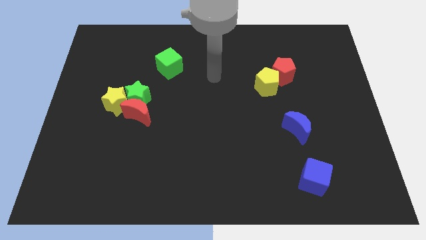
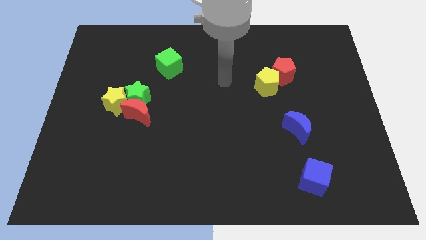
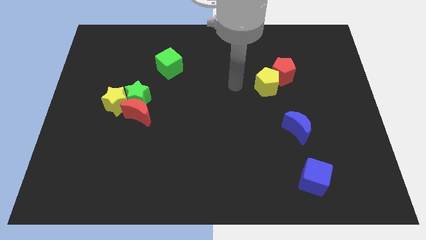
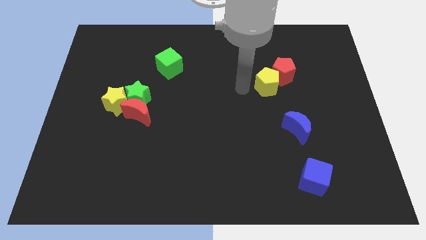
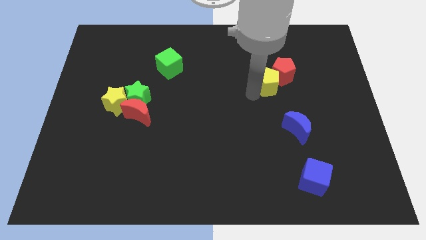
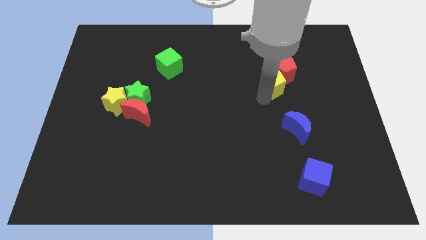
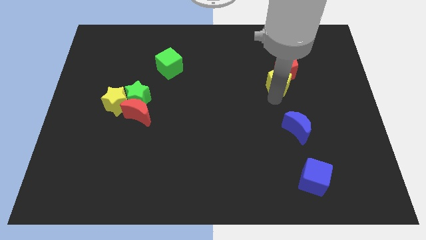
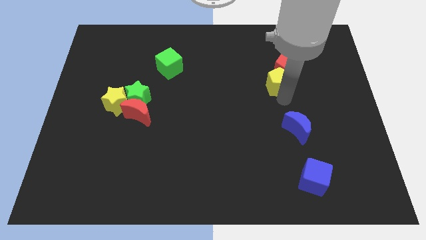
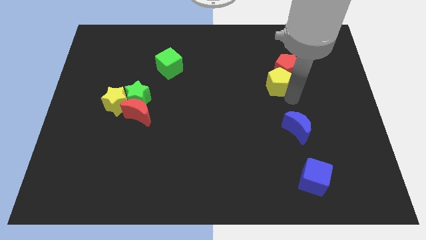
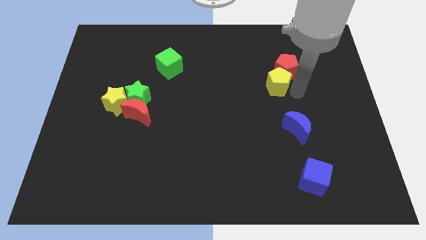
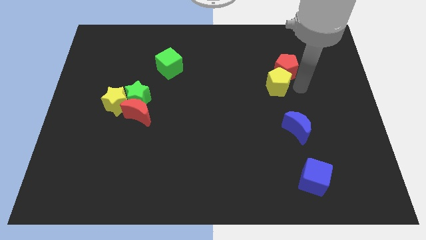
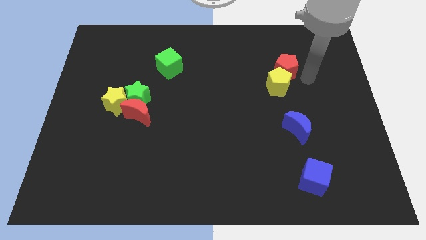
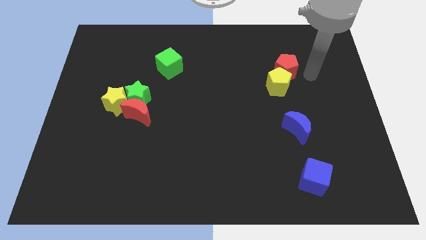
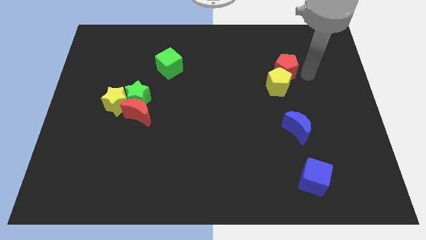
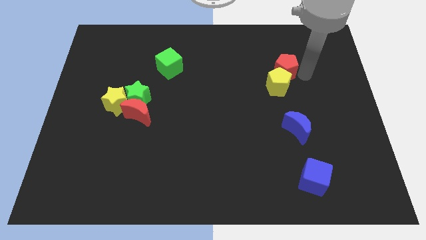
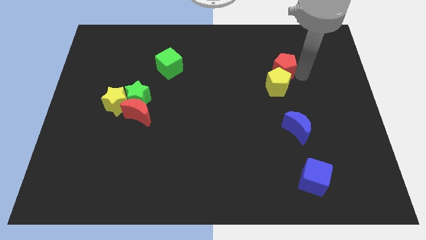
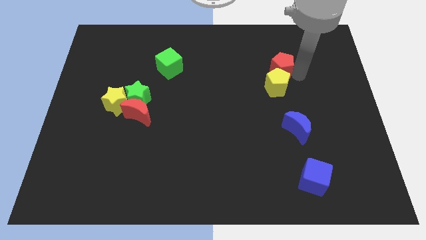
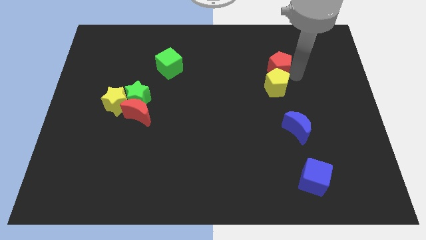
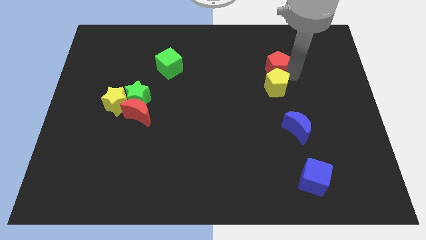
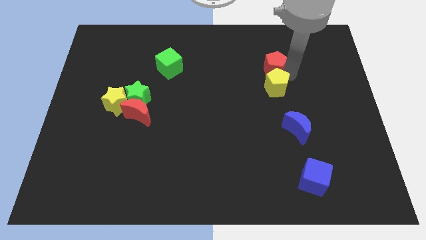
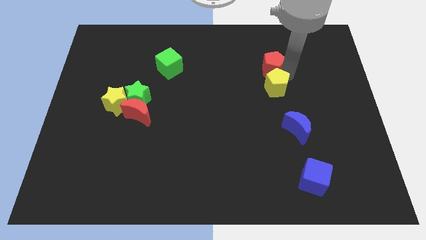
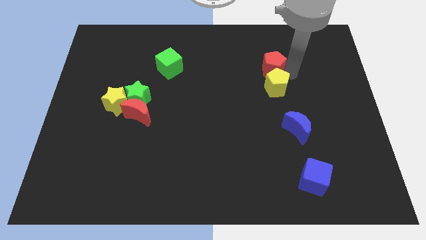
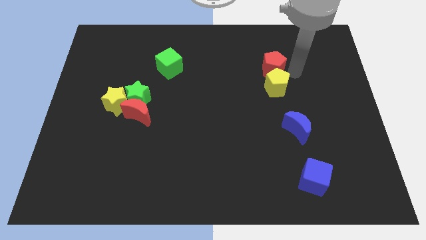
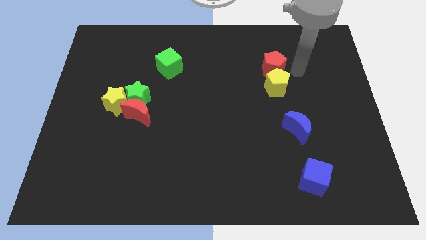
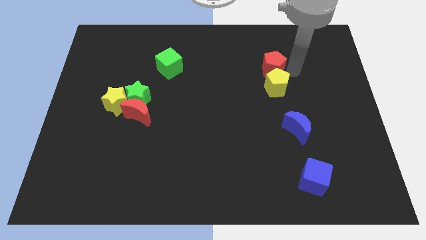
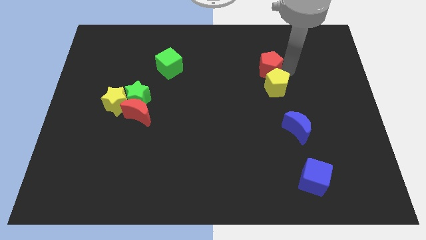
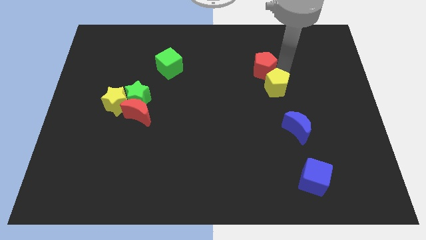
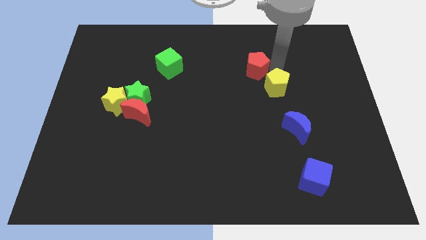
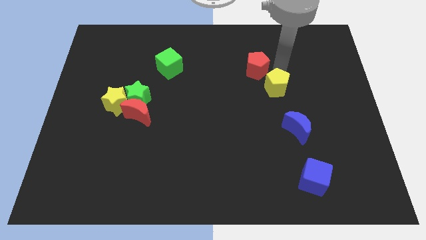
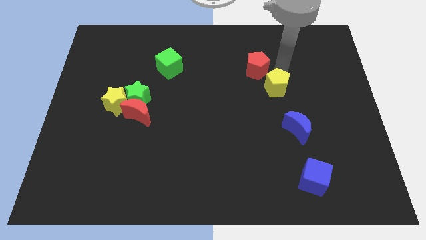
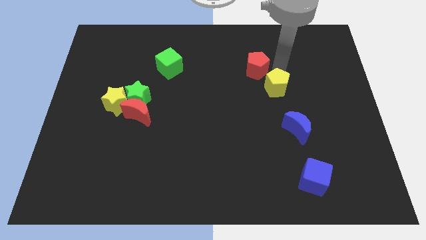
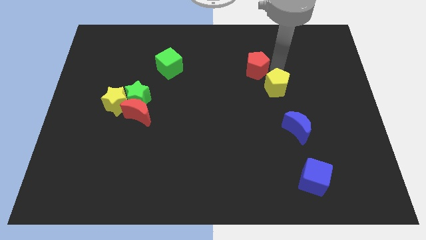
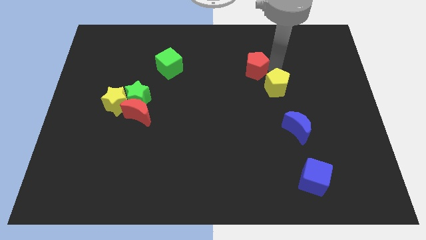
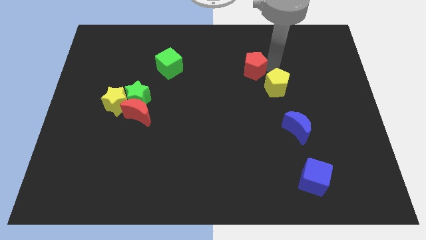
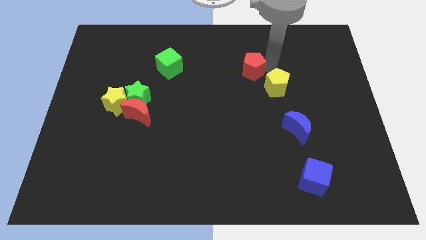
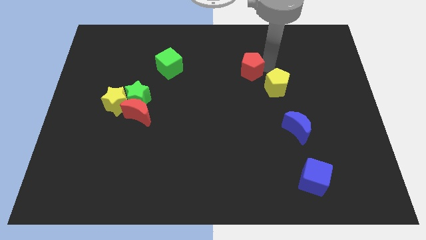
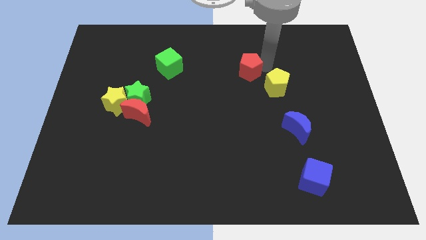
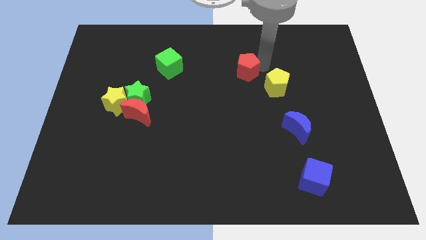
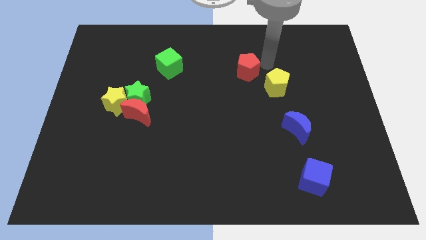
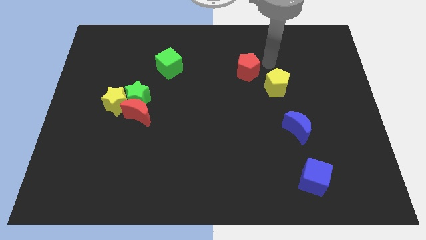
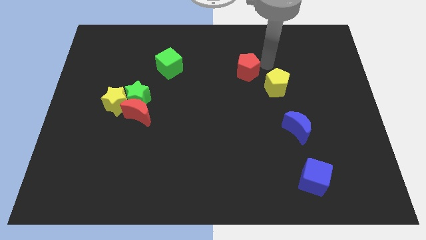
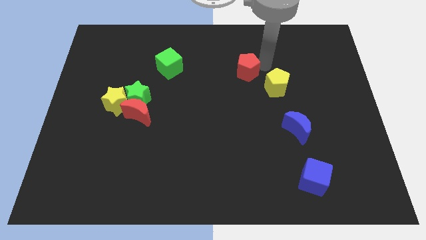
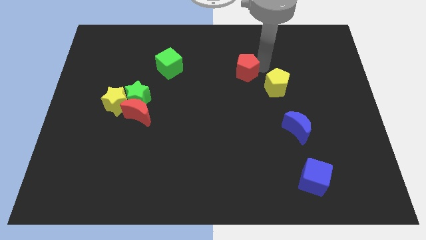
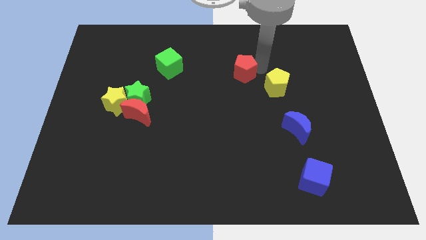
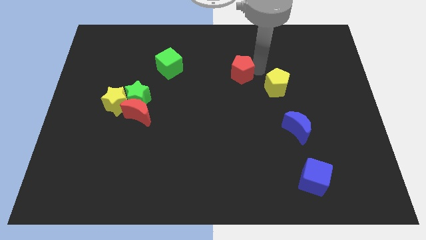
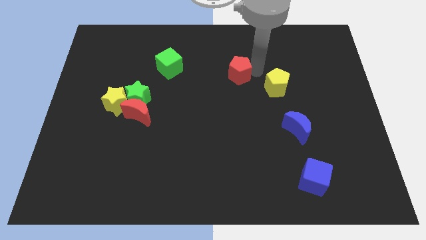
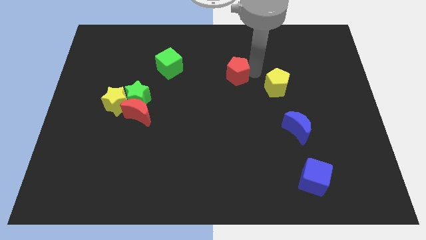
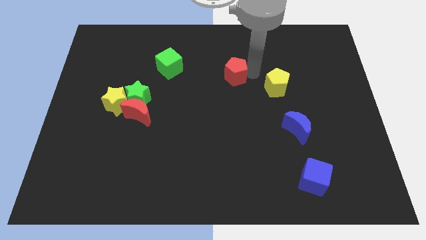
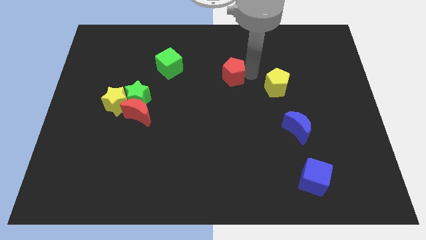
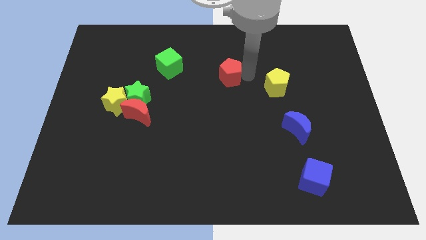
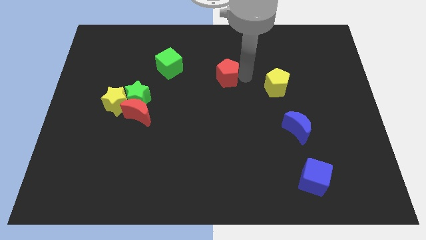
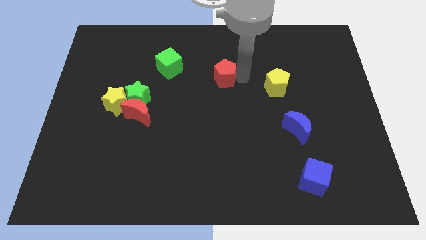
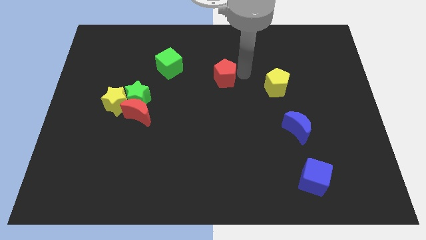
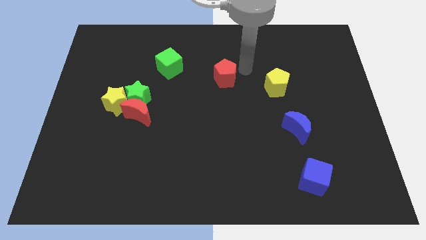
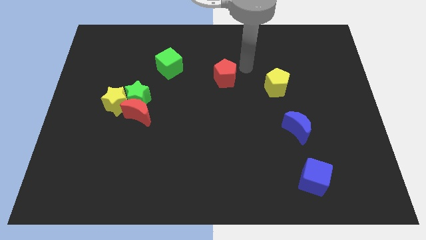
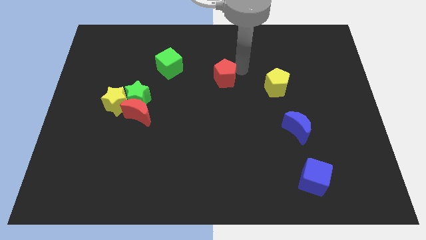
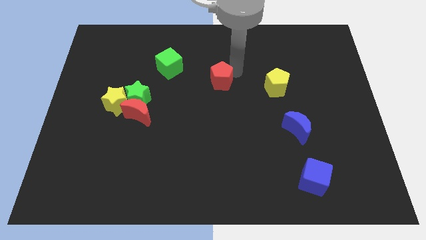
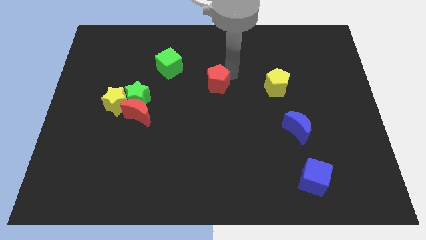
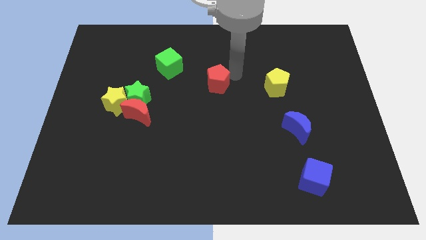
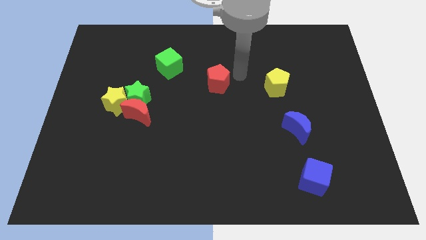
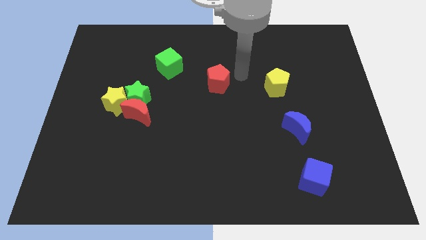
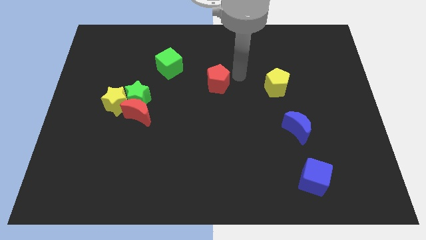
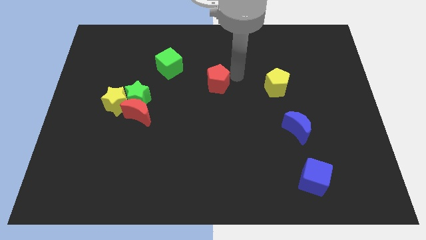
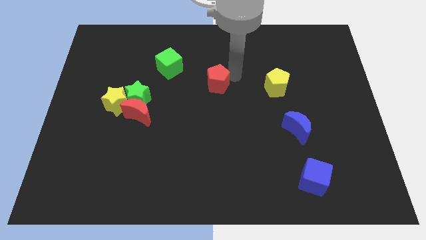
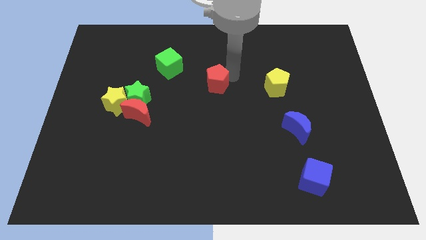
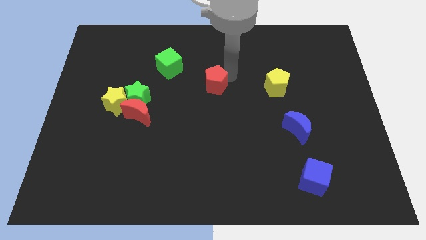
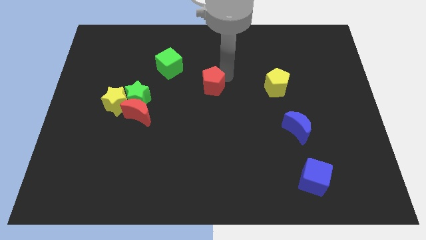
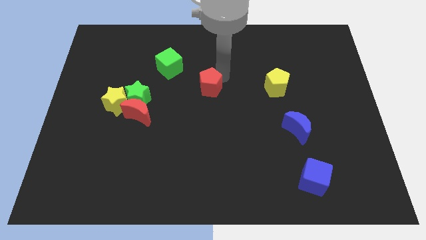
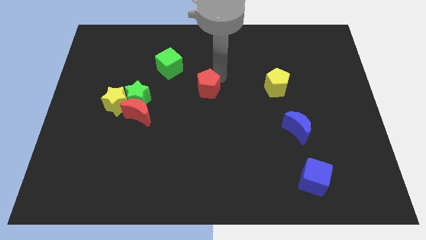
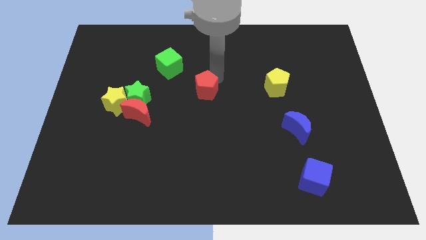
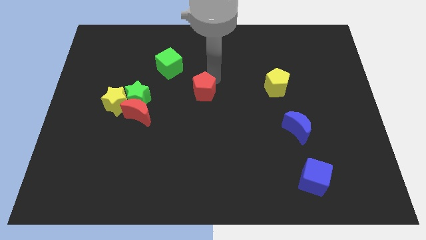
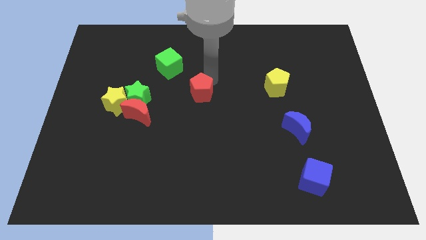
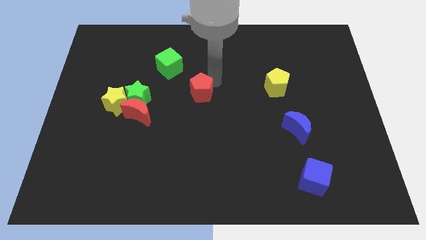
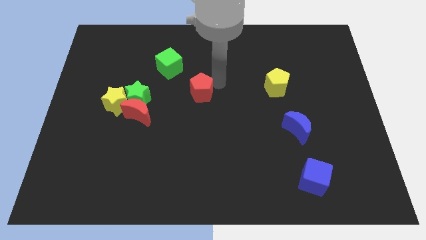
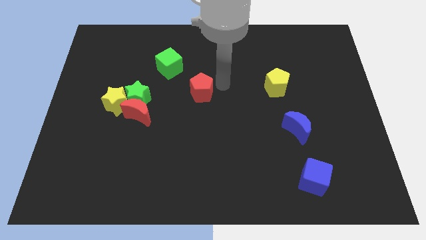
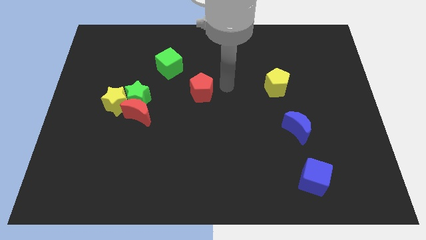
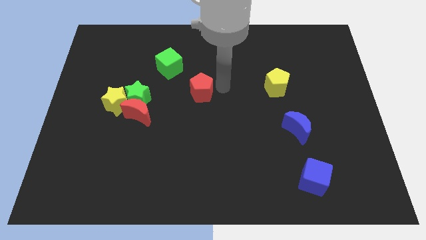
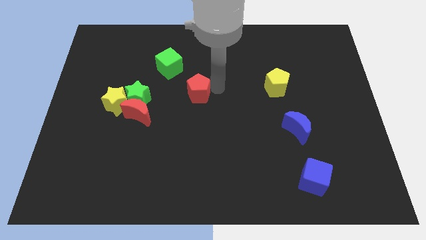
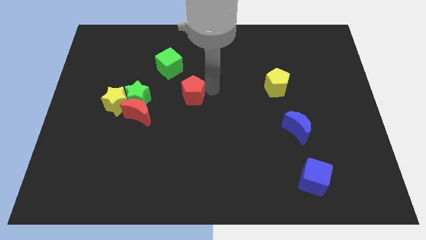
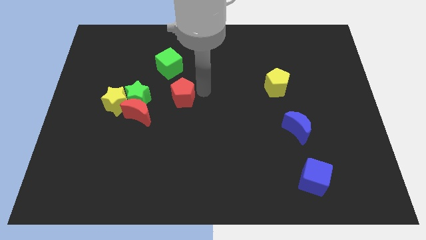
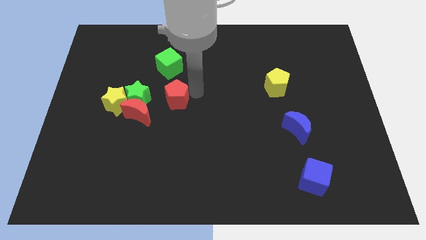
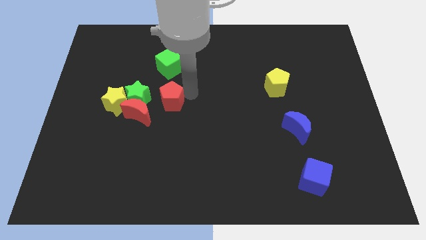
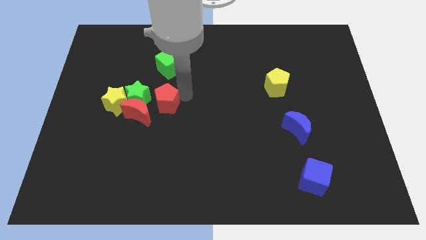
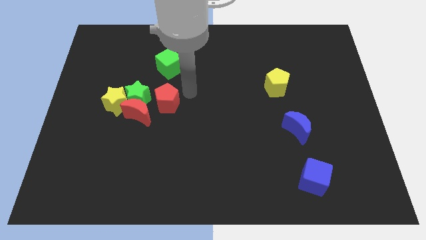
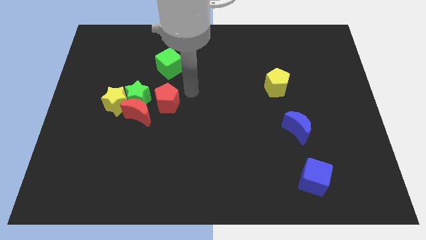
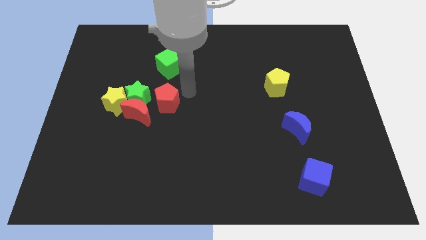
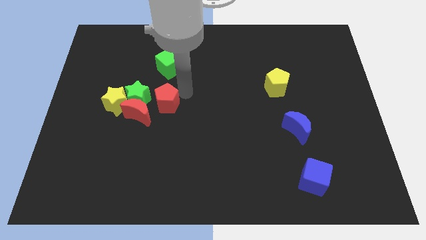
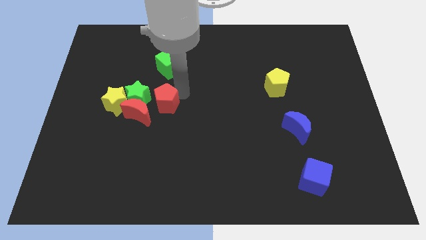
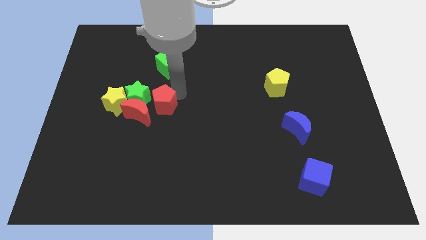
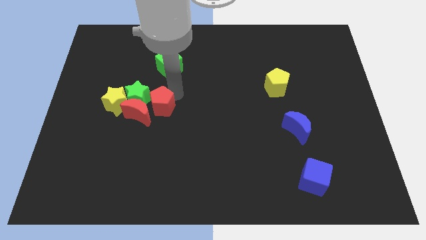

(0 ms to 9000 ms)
push the red pentagon next to the red moon
